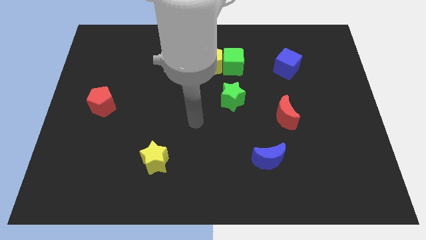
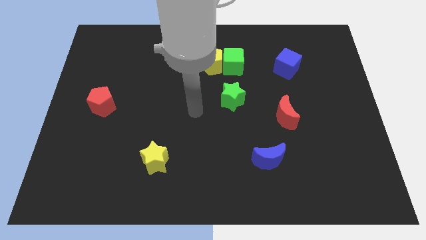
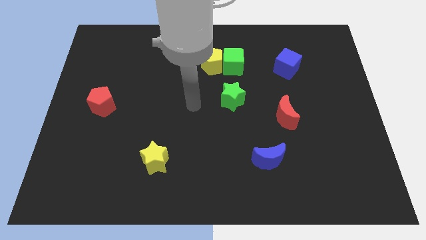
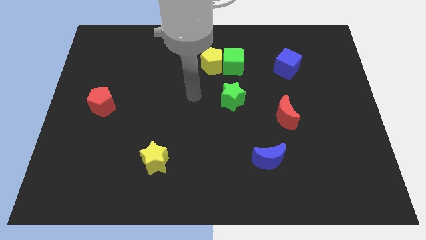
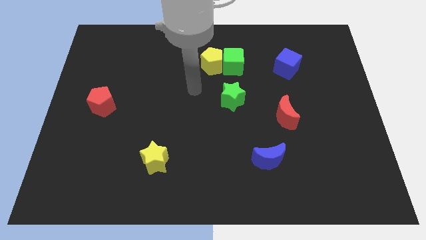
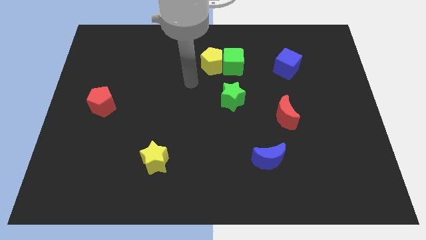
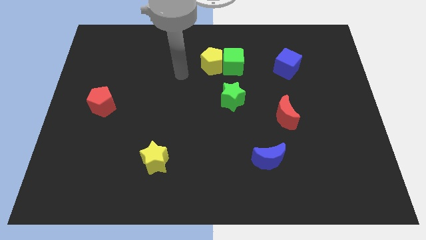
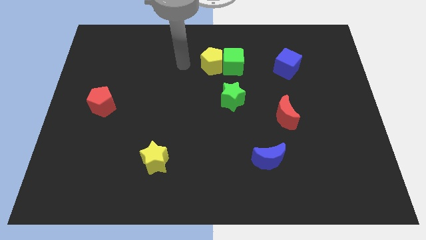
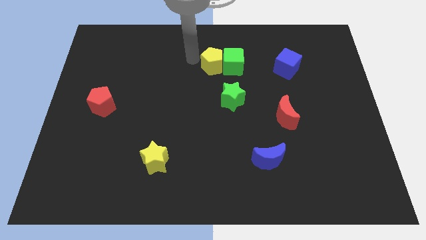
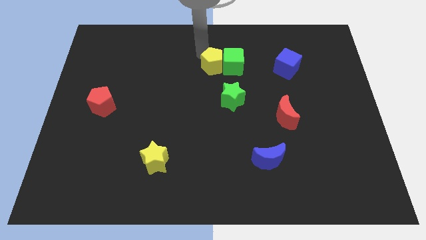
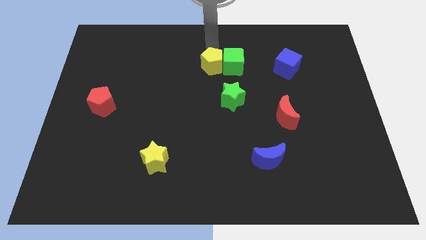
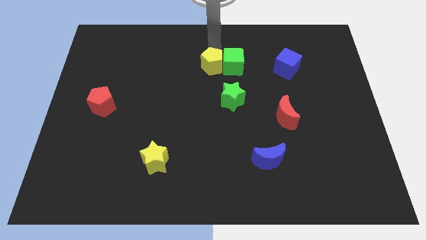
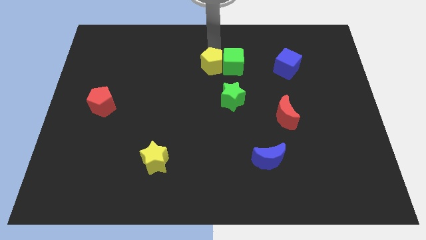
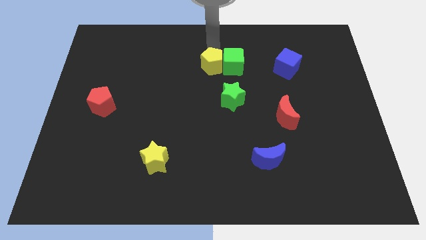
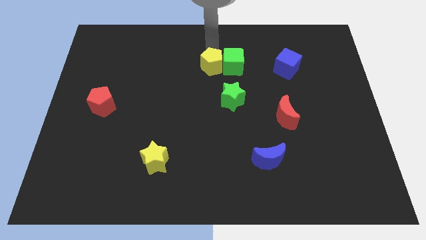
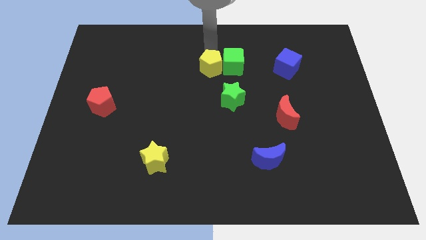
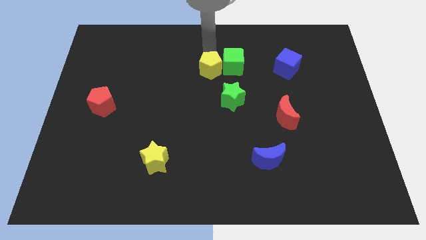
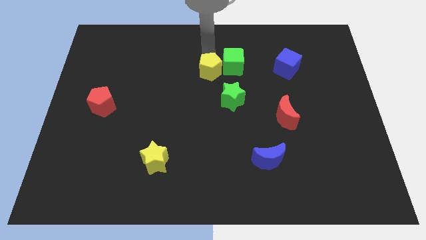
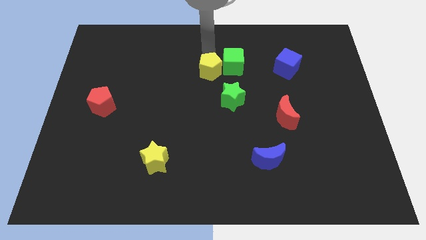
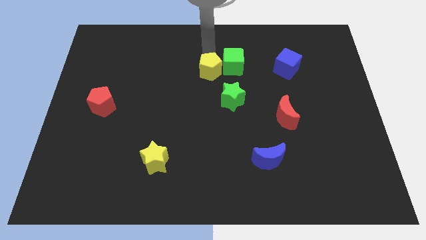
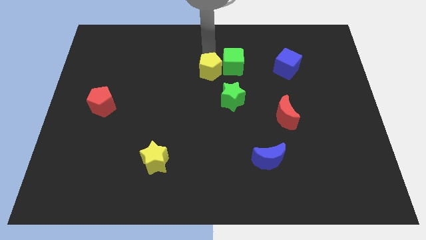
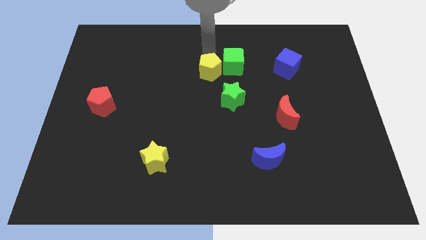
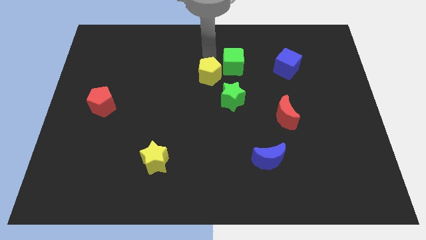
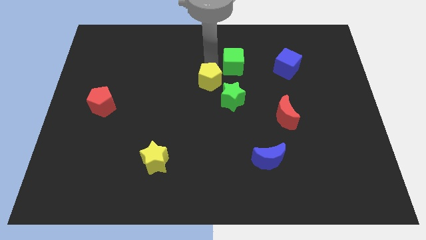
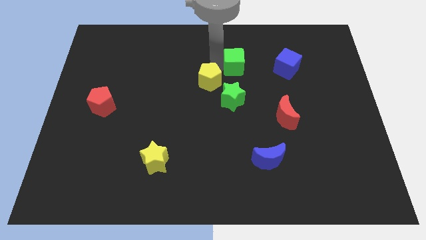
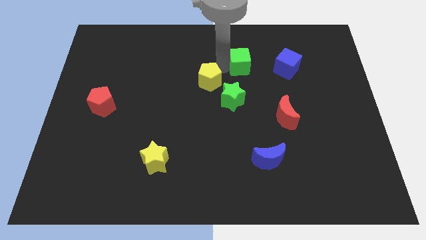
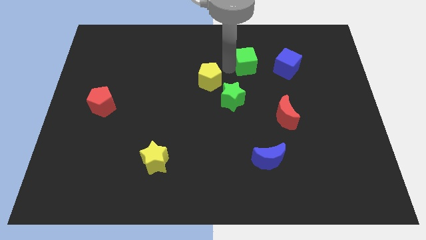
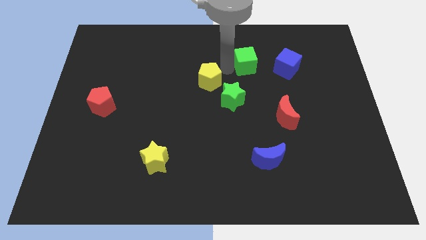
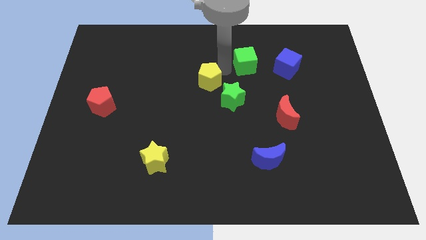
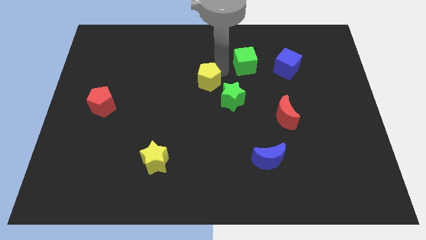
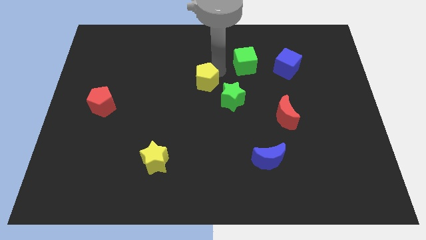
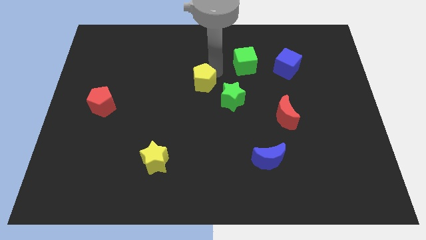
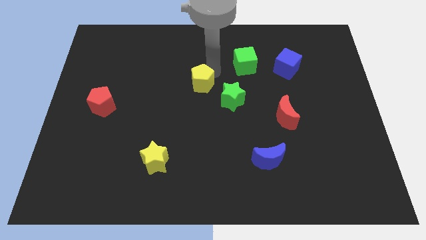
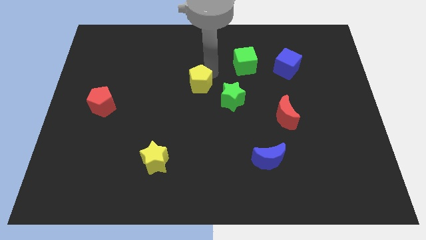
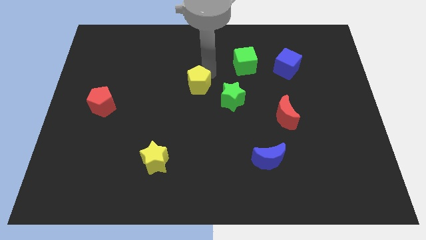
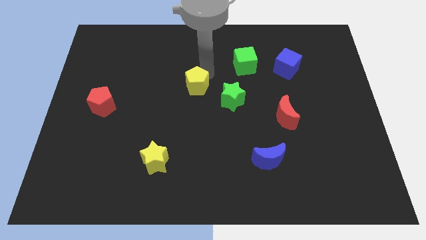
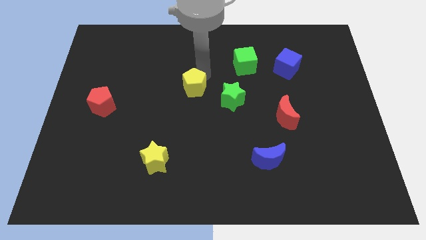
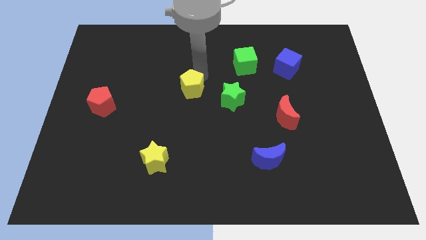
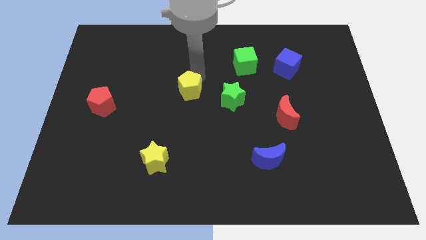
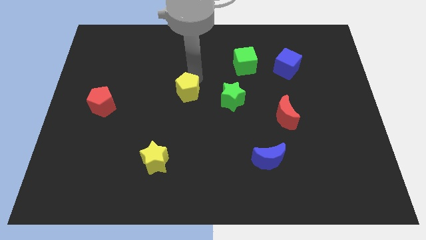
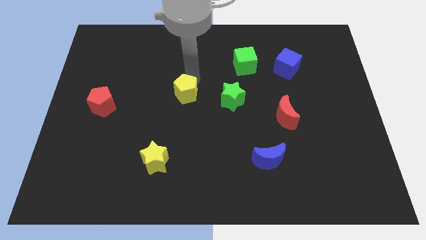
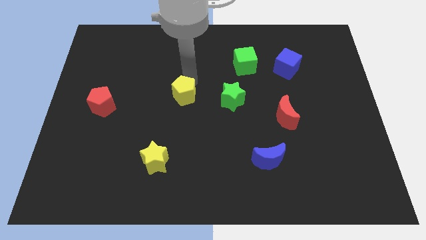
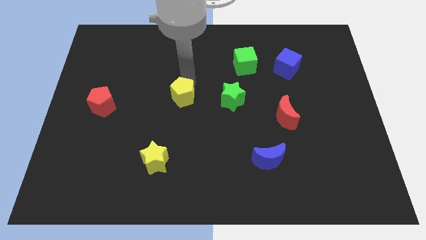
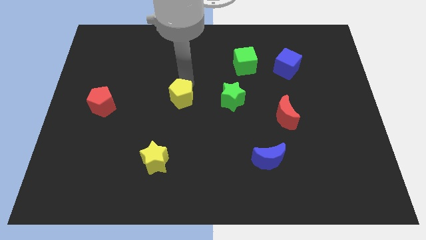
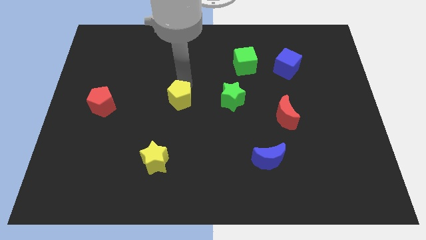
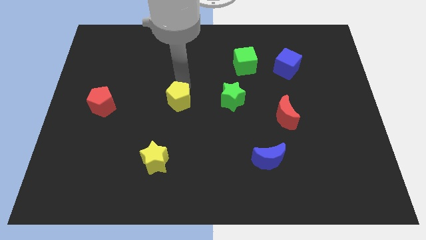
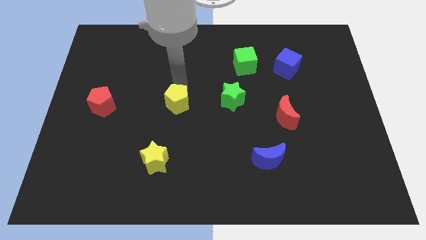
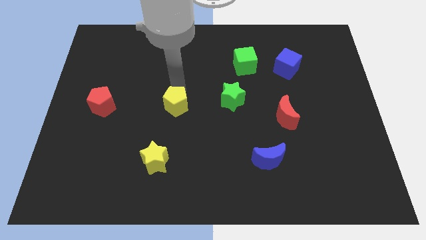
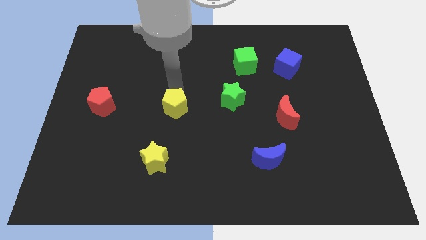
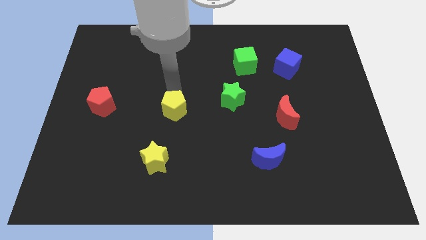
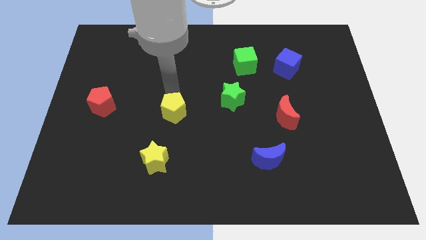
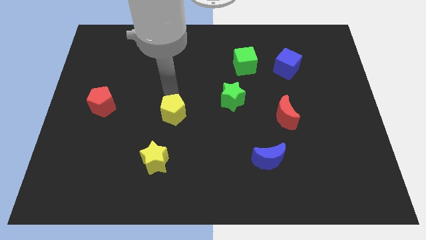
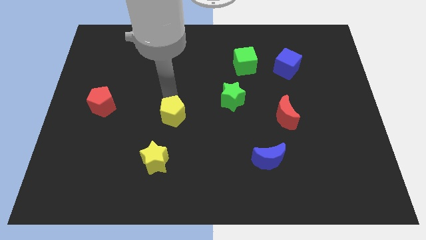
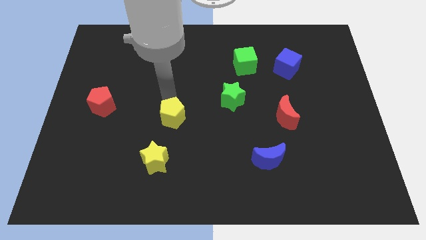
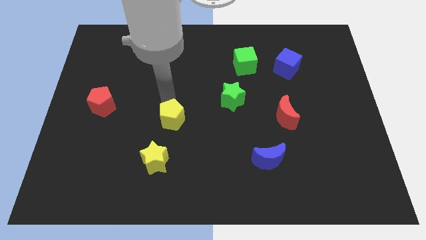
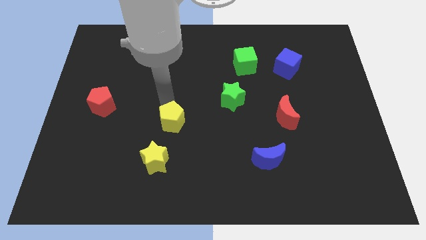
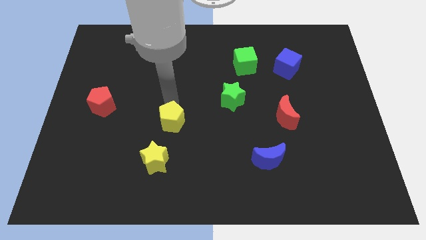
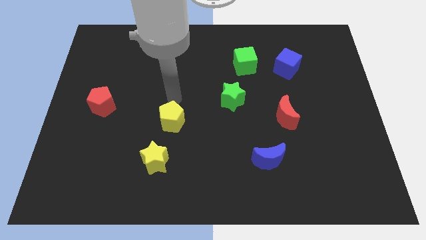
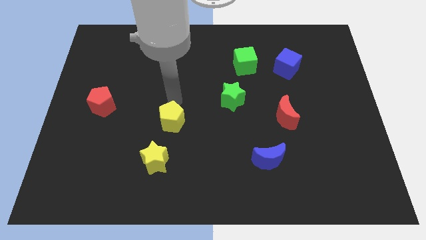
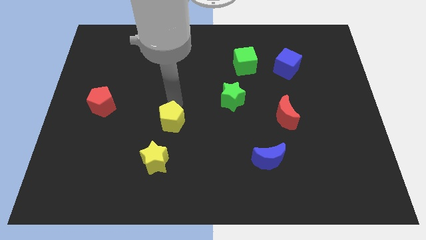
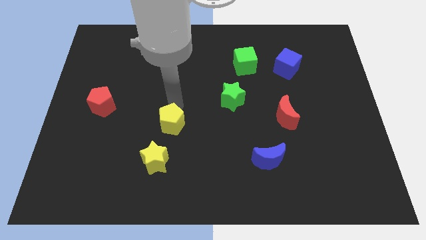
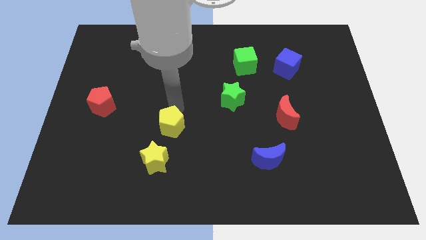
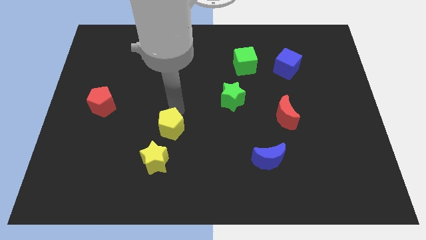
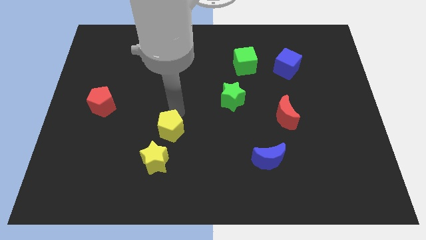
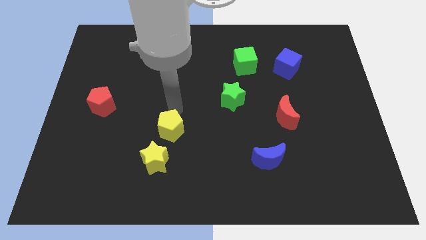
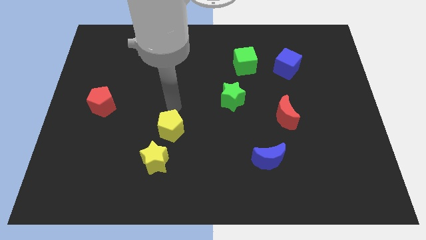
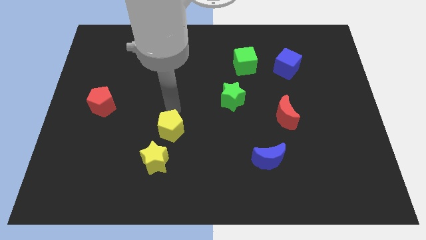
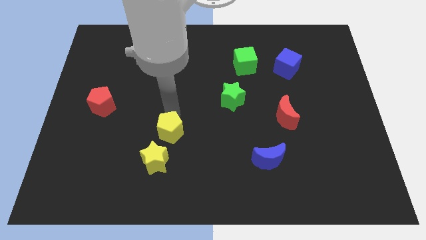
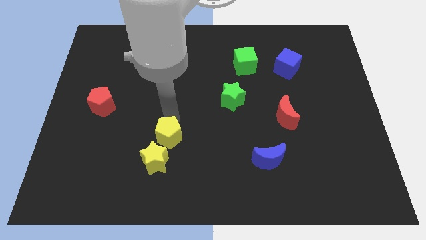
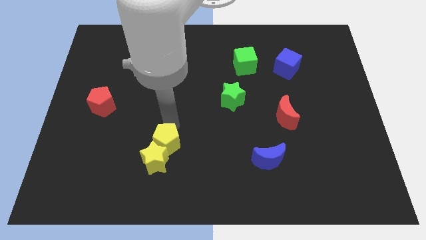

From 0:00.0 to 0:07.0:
push the yellow pentagon towards the yellow star

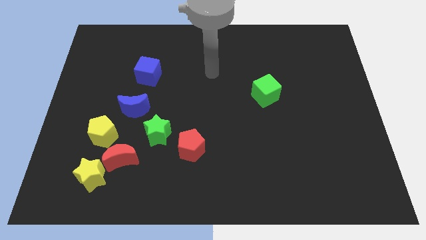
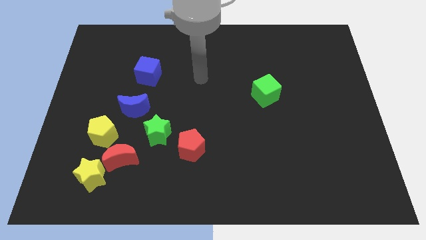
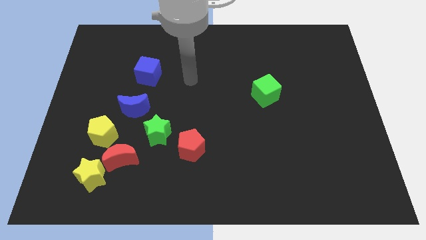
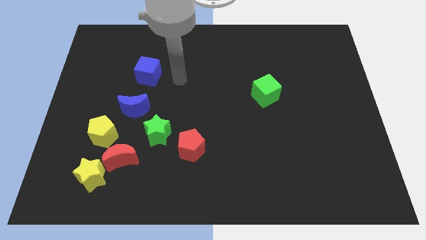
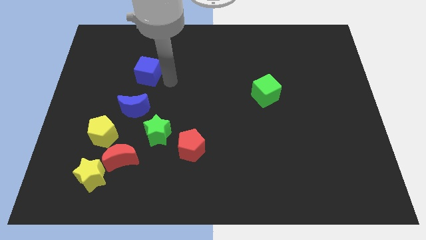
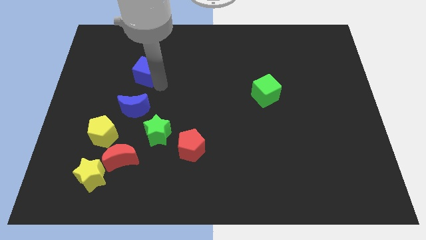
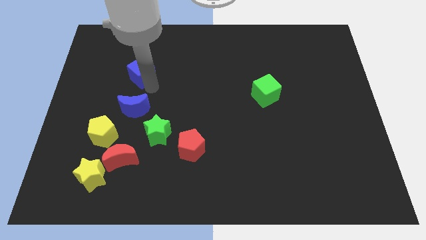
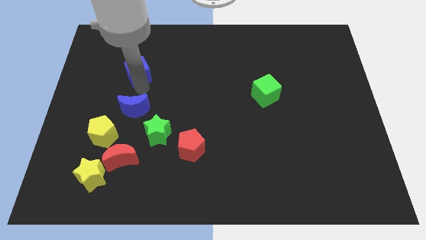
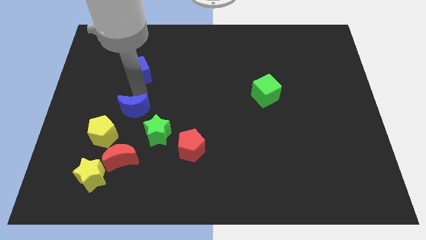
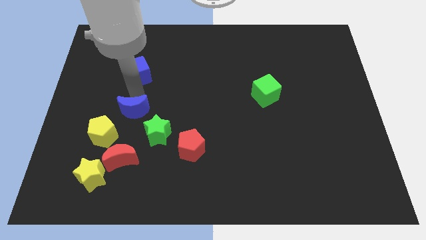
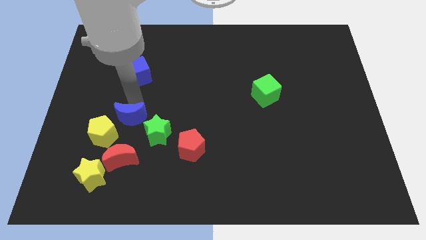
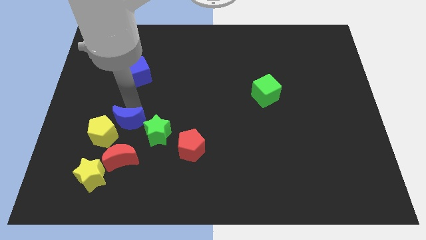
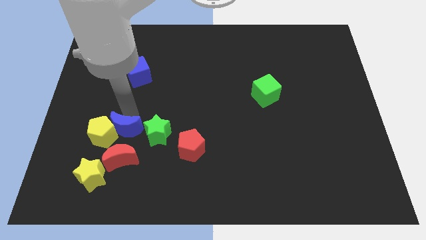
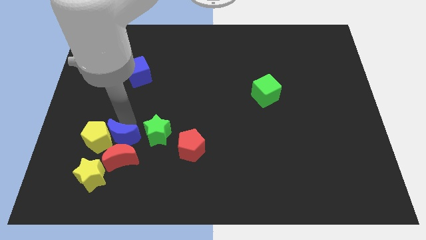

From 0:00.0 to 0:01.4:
put the blue moon close to the red moon
